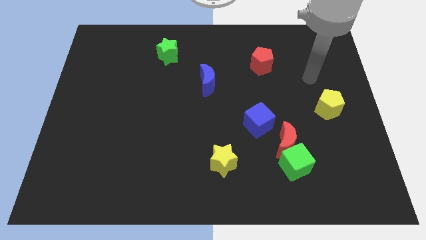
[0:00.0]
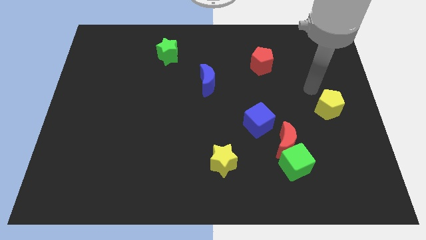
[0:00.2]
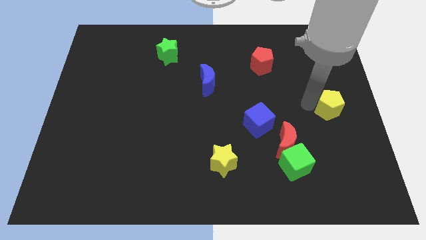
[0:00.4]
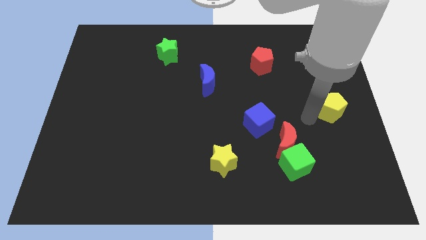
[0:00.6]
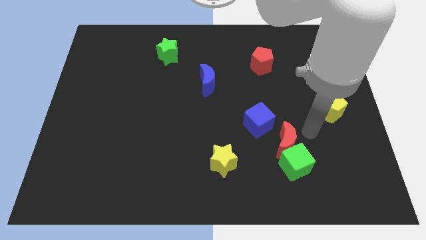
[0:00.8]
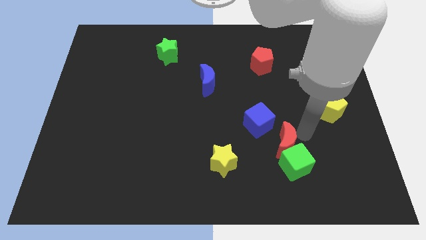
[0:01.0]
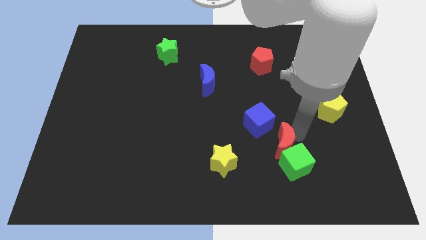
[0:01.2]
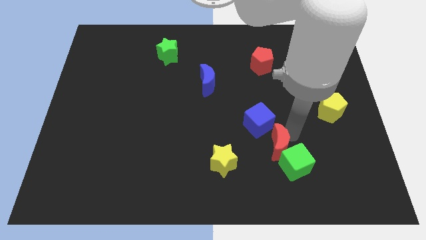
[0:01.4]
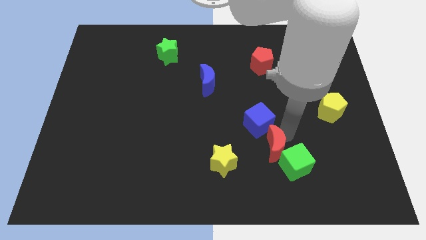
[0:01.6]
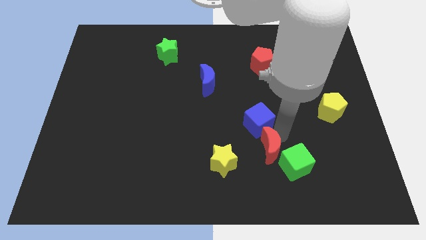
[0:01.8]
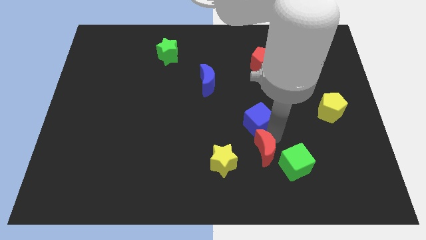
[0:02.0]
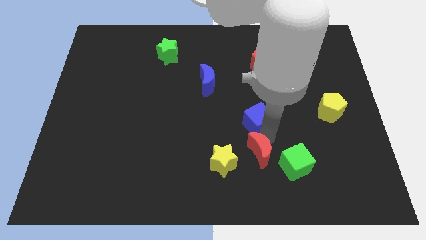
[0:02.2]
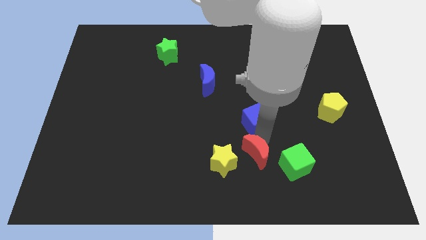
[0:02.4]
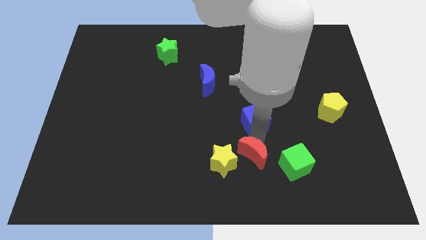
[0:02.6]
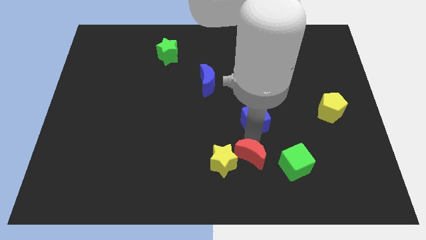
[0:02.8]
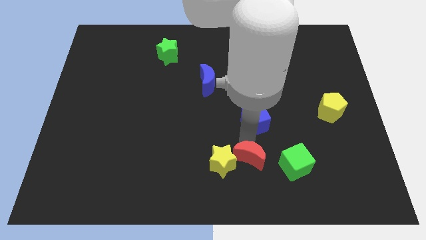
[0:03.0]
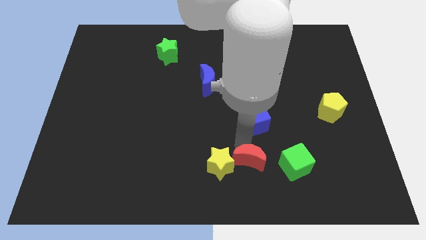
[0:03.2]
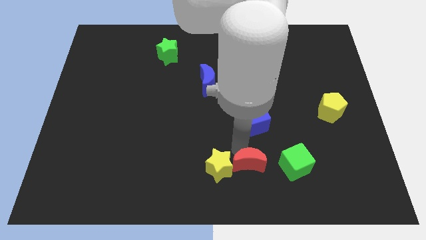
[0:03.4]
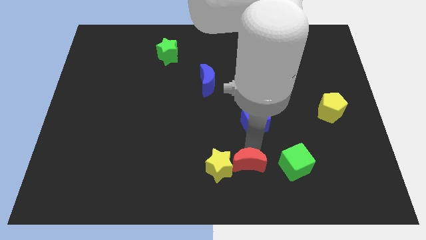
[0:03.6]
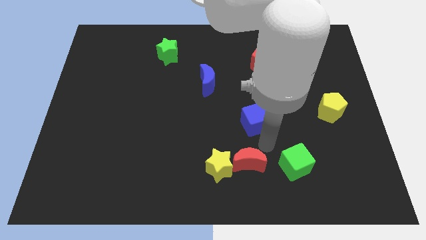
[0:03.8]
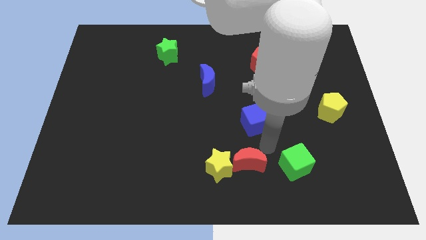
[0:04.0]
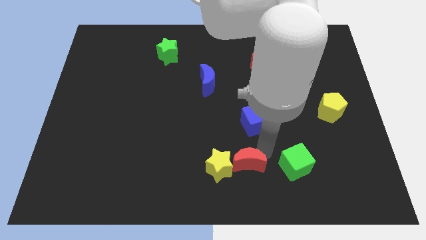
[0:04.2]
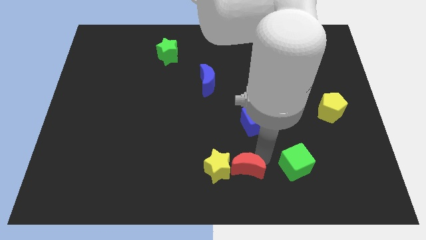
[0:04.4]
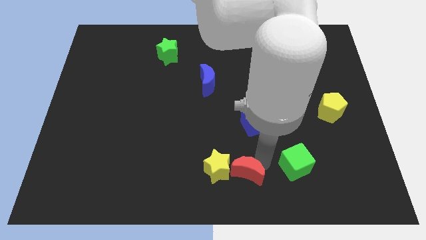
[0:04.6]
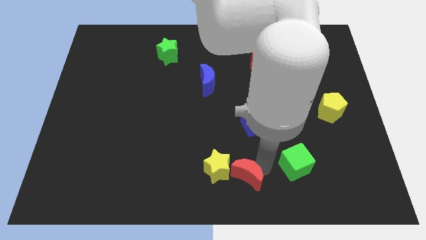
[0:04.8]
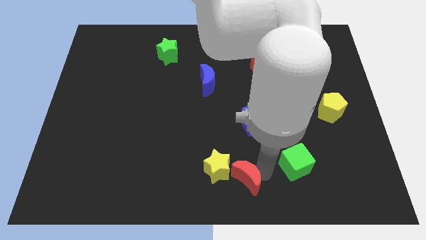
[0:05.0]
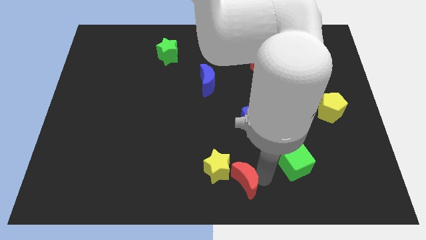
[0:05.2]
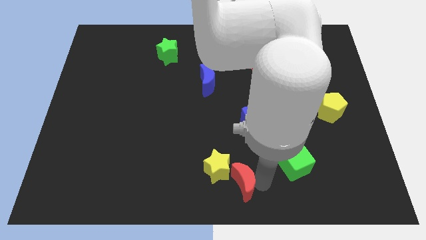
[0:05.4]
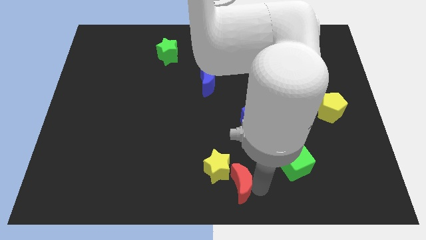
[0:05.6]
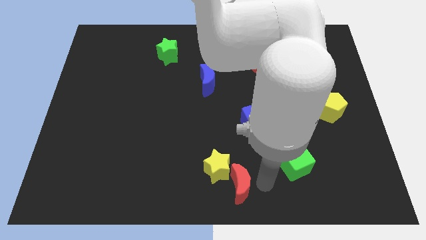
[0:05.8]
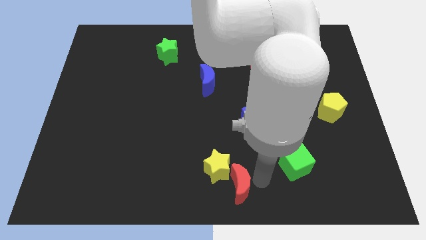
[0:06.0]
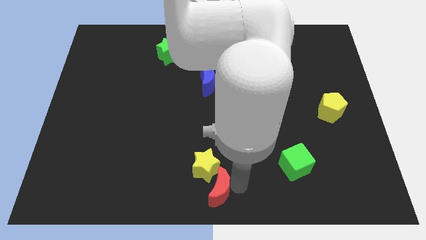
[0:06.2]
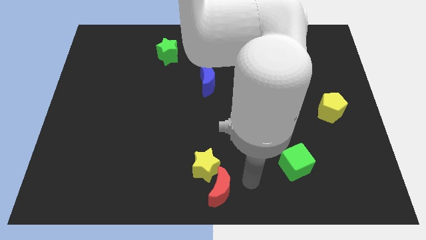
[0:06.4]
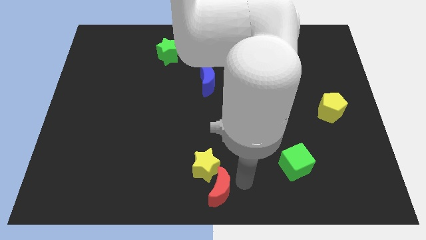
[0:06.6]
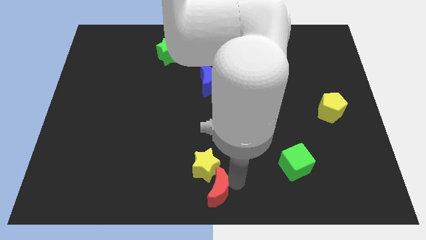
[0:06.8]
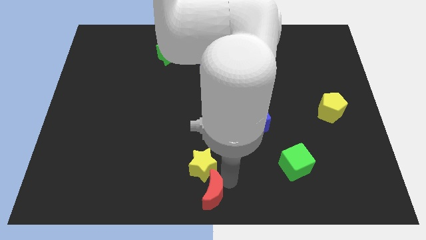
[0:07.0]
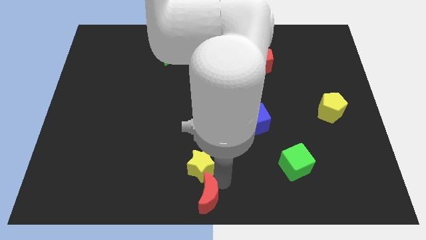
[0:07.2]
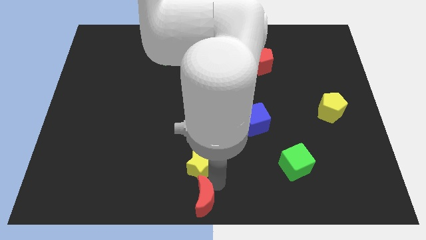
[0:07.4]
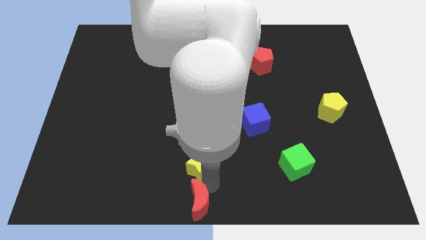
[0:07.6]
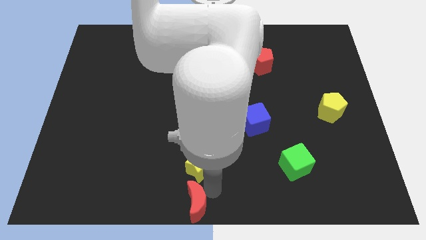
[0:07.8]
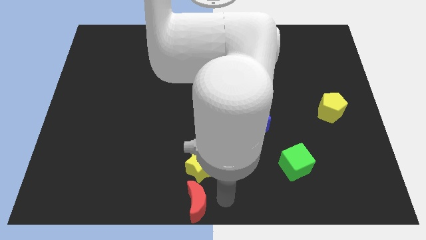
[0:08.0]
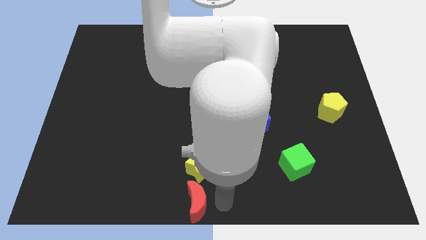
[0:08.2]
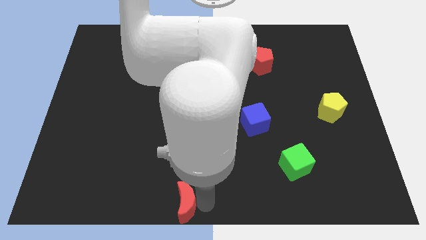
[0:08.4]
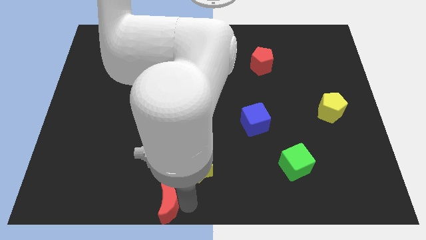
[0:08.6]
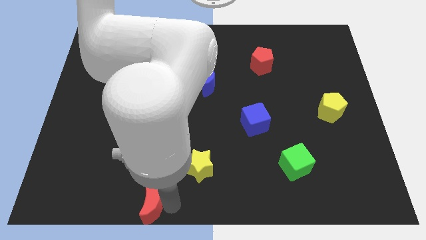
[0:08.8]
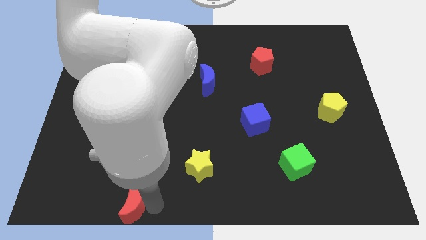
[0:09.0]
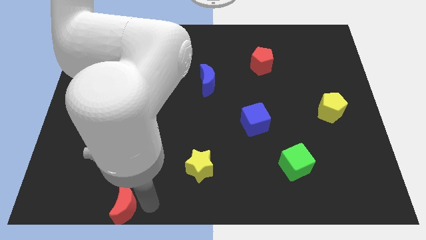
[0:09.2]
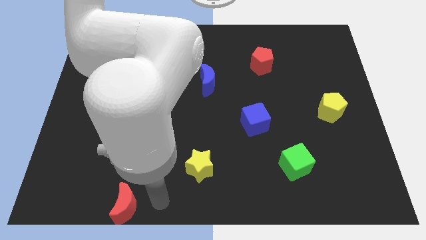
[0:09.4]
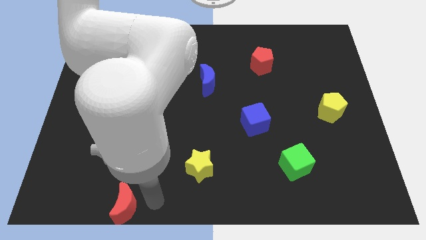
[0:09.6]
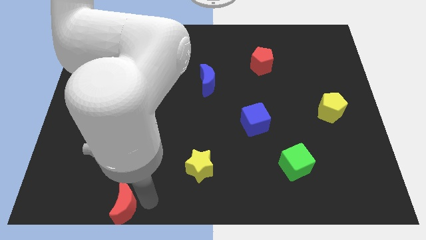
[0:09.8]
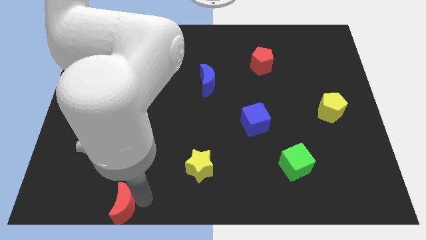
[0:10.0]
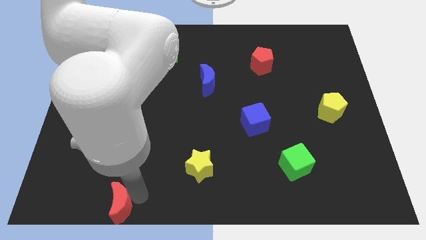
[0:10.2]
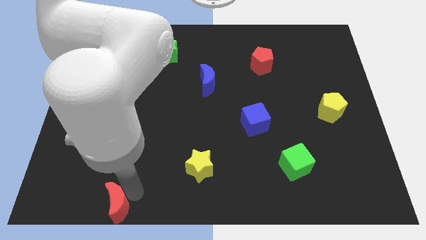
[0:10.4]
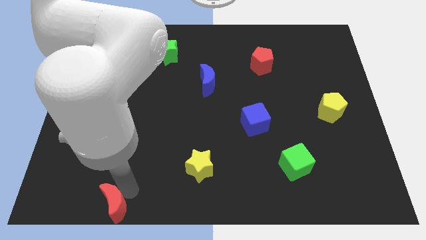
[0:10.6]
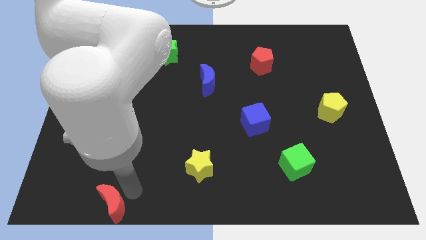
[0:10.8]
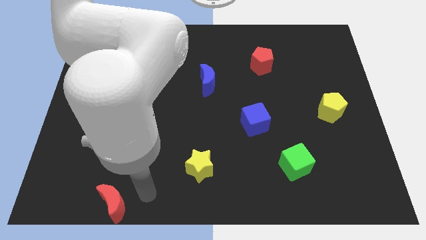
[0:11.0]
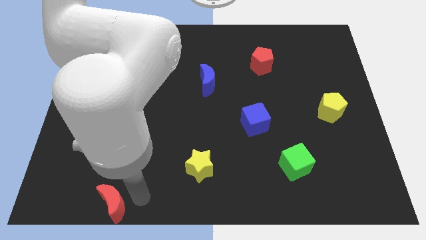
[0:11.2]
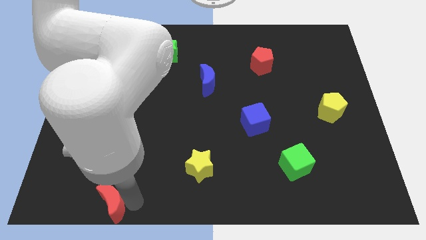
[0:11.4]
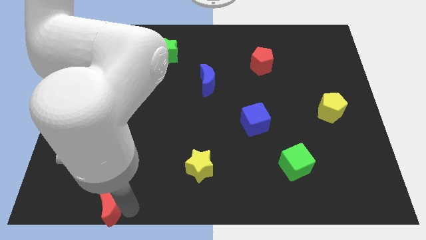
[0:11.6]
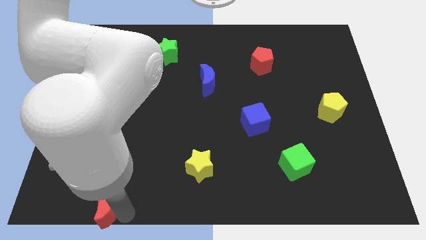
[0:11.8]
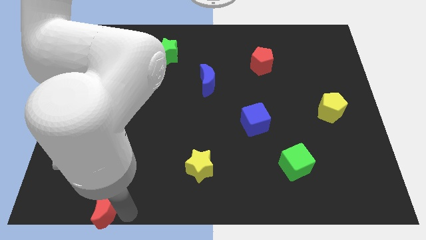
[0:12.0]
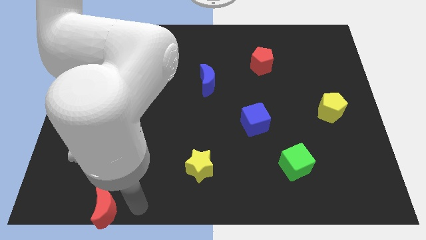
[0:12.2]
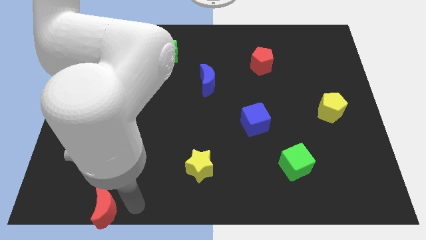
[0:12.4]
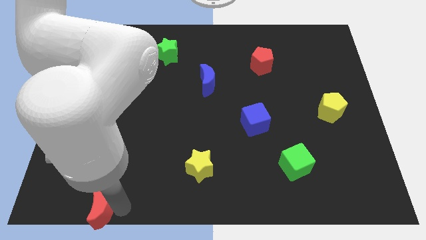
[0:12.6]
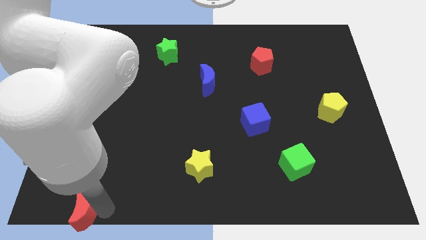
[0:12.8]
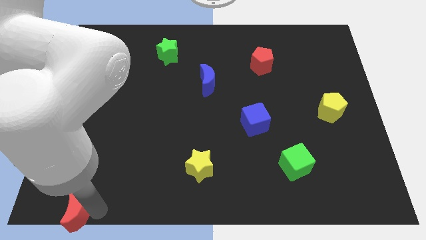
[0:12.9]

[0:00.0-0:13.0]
slide the red moon to the bottom left of the board

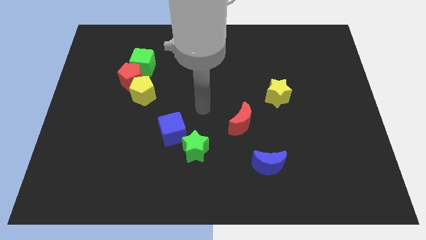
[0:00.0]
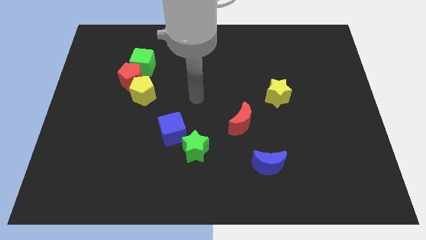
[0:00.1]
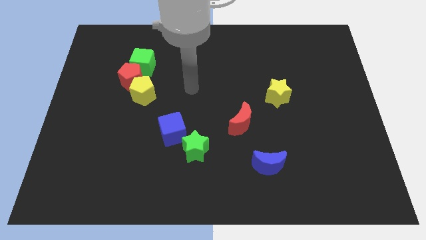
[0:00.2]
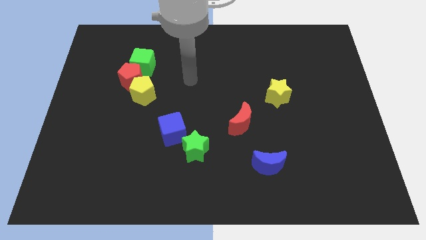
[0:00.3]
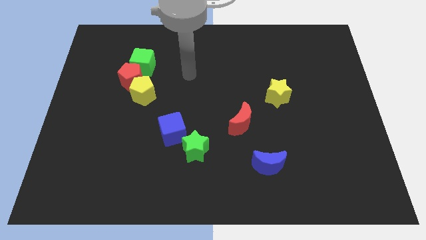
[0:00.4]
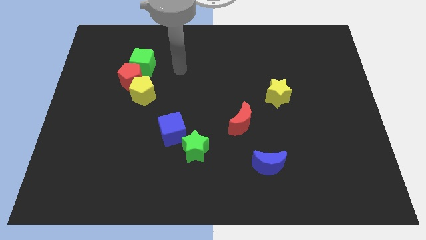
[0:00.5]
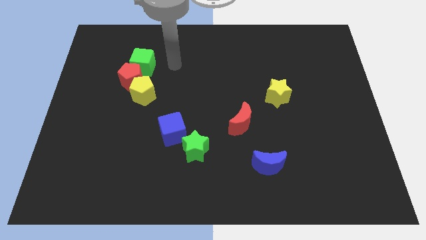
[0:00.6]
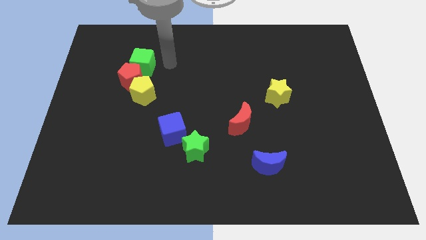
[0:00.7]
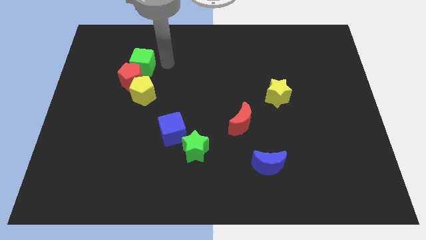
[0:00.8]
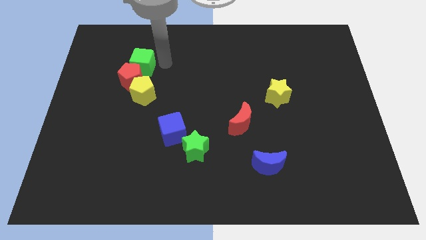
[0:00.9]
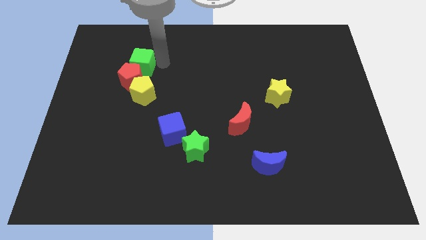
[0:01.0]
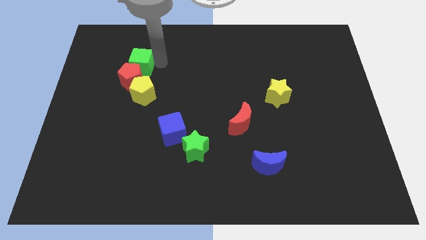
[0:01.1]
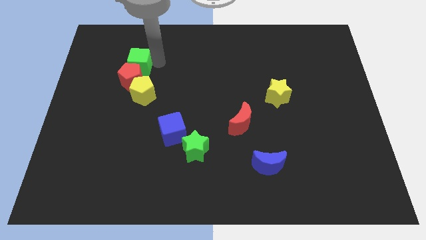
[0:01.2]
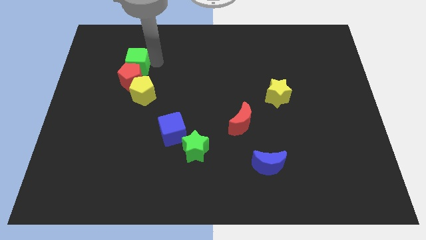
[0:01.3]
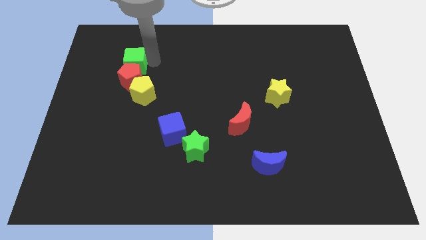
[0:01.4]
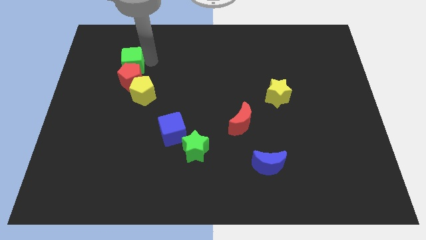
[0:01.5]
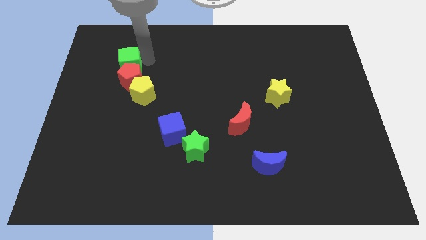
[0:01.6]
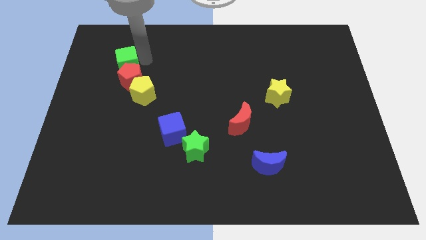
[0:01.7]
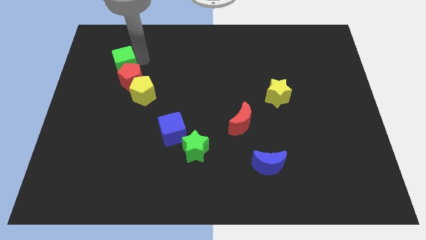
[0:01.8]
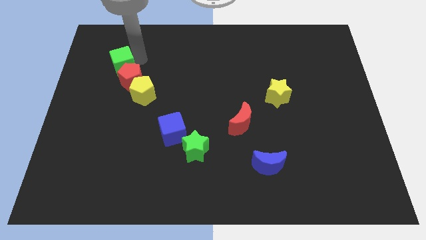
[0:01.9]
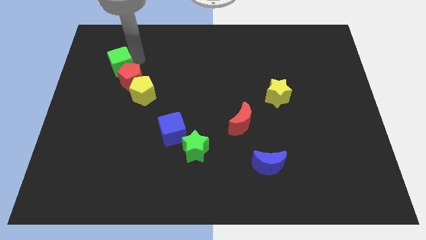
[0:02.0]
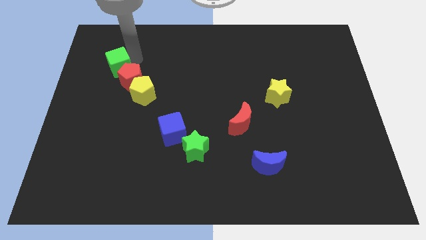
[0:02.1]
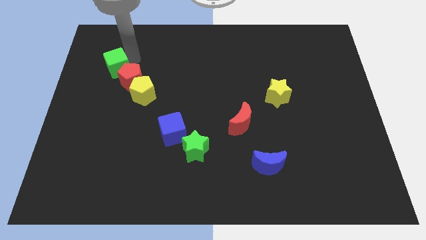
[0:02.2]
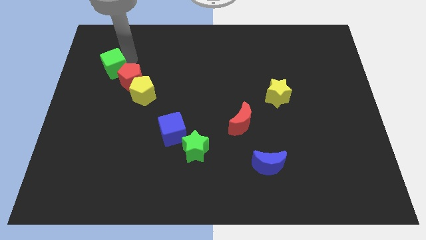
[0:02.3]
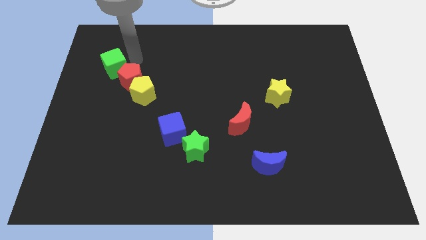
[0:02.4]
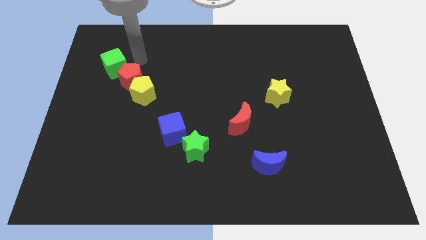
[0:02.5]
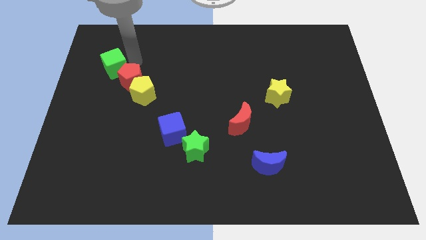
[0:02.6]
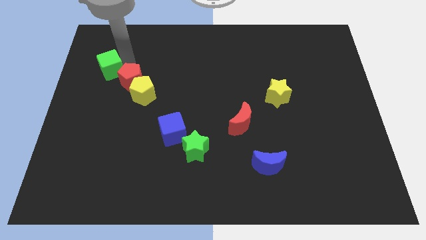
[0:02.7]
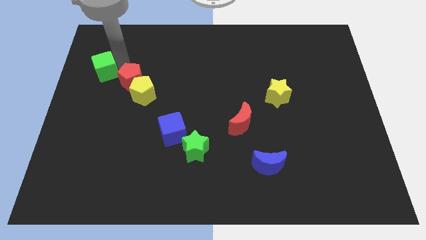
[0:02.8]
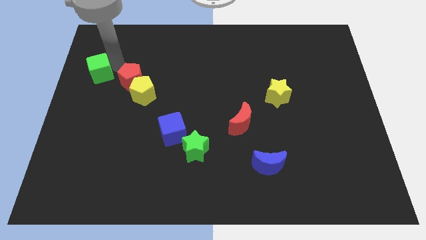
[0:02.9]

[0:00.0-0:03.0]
move the green cube to the left side of the board
